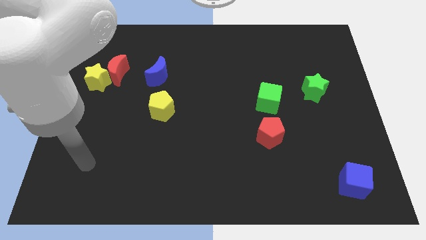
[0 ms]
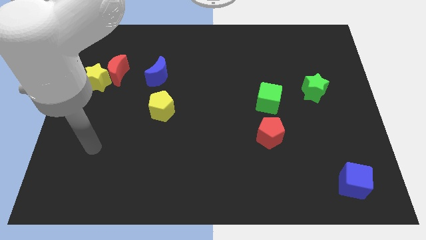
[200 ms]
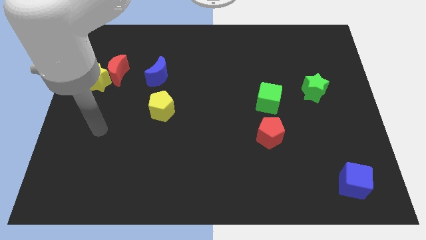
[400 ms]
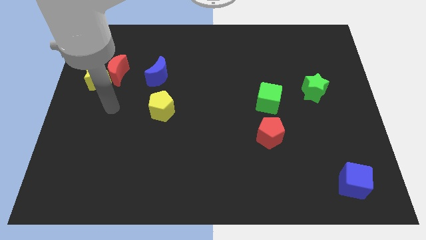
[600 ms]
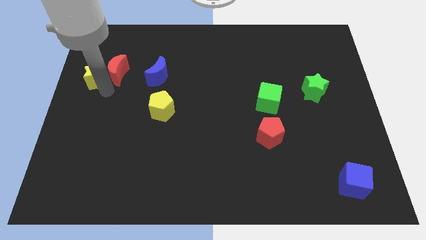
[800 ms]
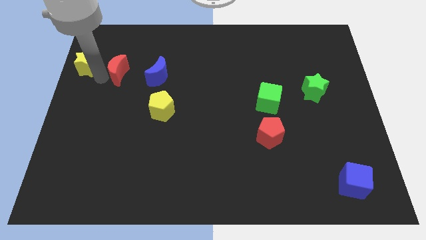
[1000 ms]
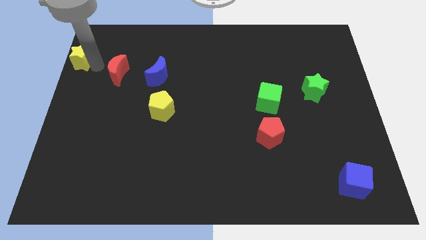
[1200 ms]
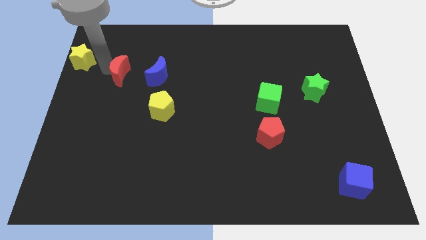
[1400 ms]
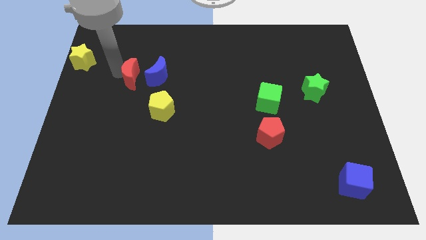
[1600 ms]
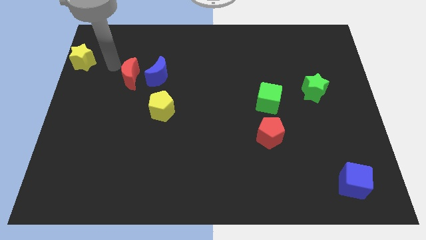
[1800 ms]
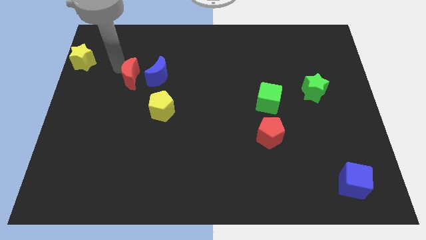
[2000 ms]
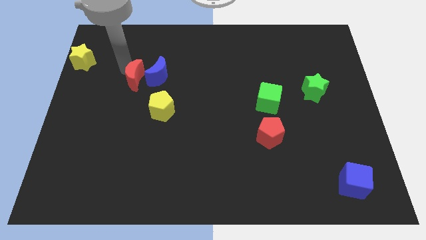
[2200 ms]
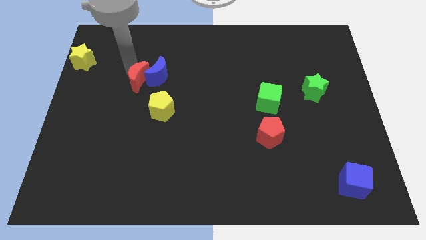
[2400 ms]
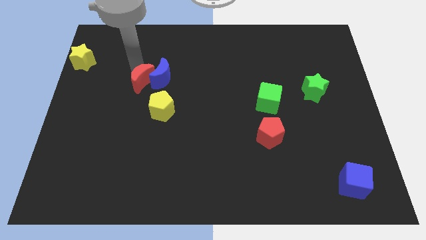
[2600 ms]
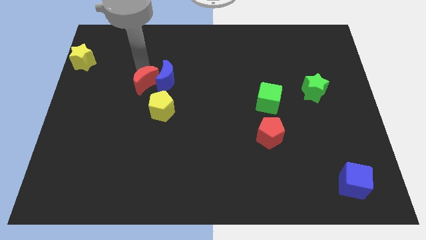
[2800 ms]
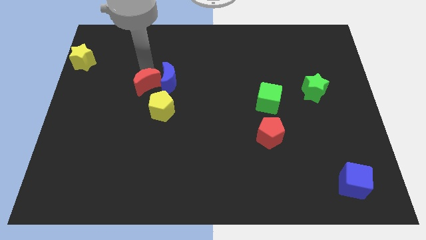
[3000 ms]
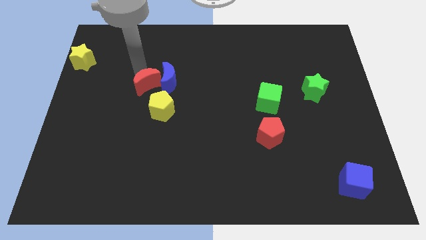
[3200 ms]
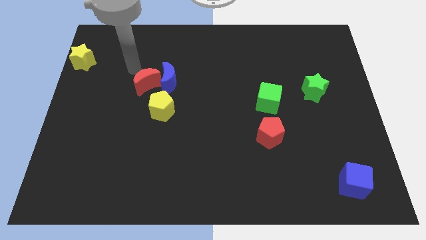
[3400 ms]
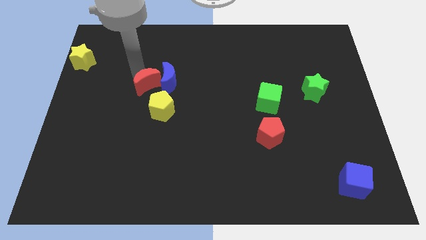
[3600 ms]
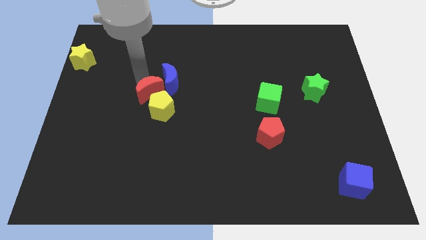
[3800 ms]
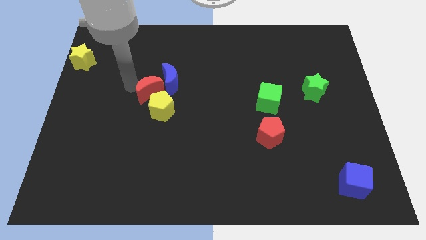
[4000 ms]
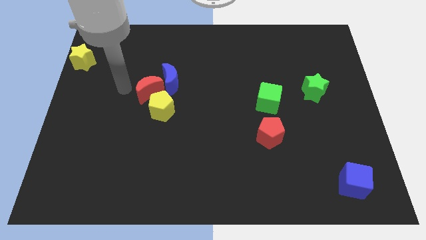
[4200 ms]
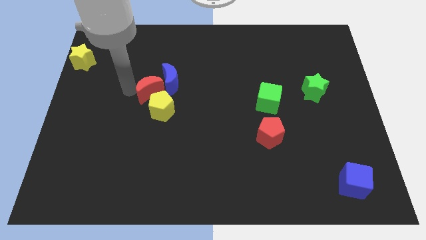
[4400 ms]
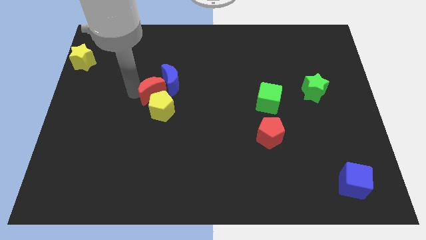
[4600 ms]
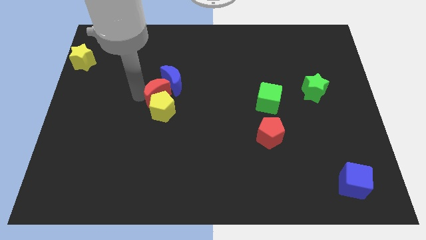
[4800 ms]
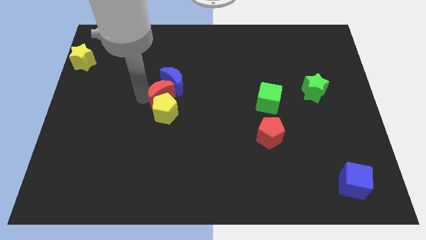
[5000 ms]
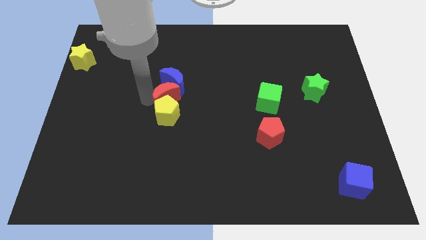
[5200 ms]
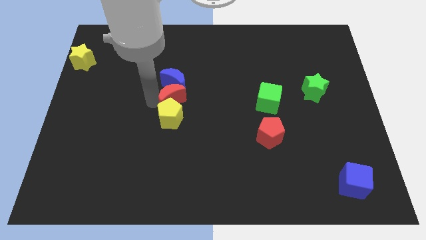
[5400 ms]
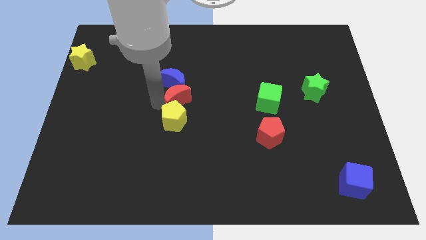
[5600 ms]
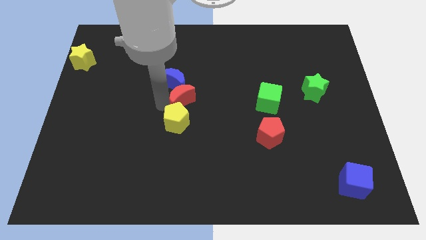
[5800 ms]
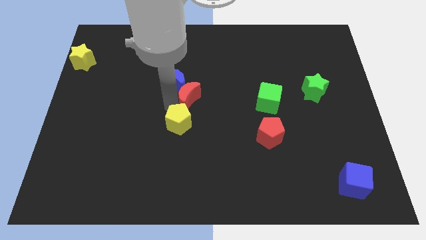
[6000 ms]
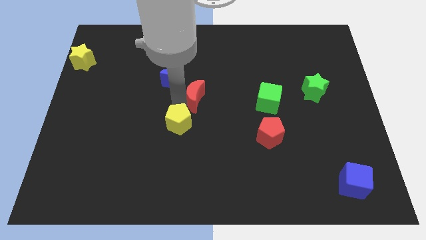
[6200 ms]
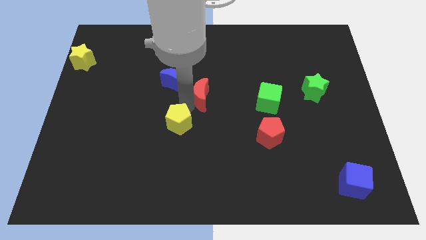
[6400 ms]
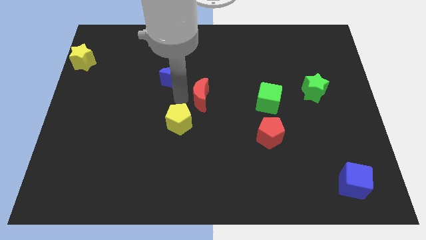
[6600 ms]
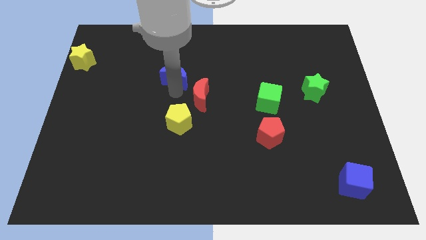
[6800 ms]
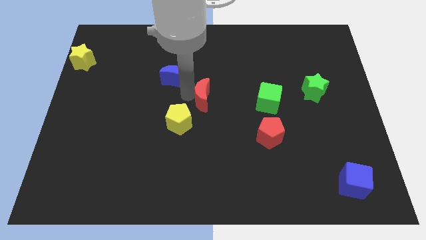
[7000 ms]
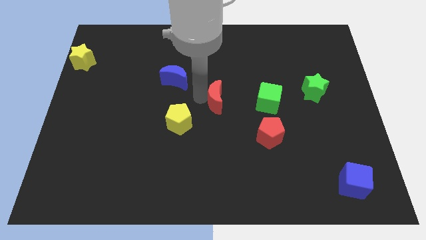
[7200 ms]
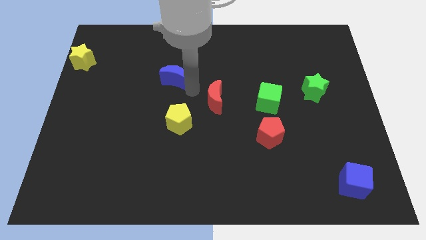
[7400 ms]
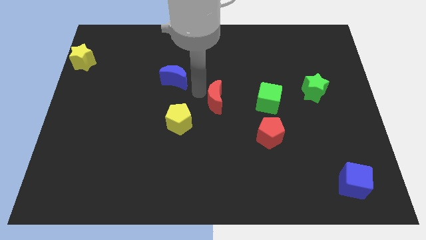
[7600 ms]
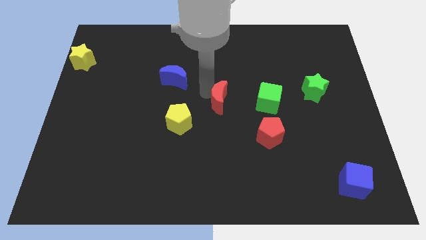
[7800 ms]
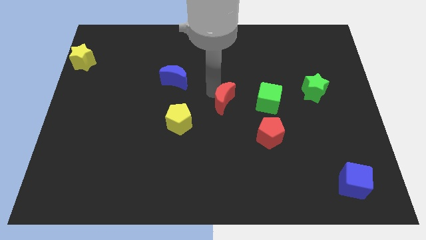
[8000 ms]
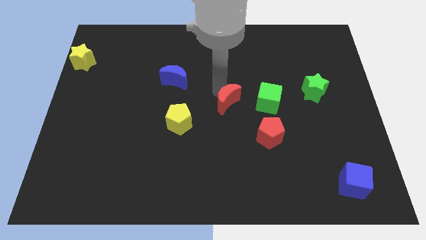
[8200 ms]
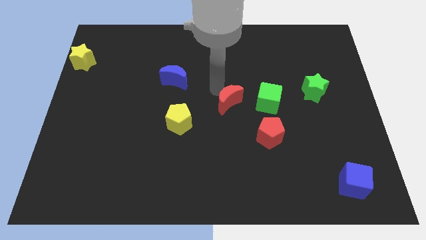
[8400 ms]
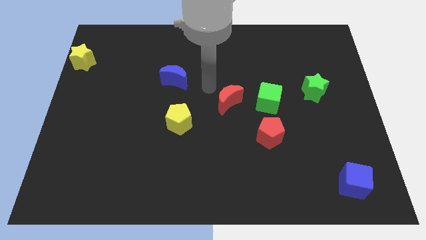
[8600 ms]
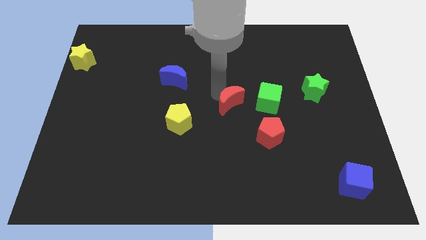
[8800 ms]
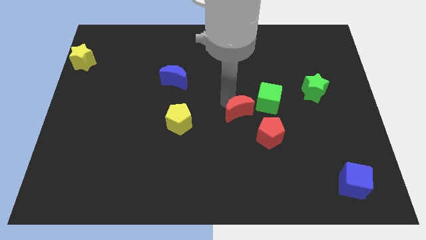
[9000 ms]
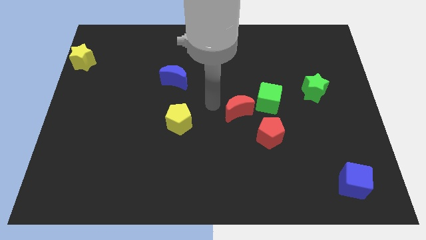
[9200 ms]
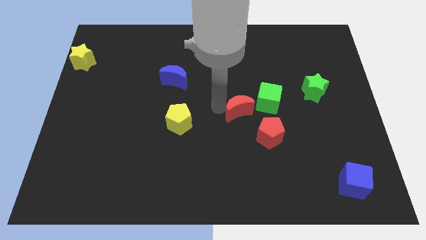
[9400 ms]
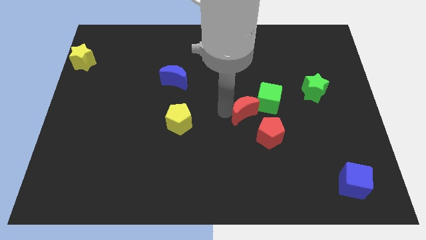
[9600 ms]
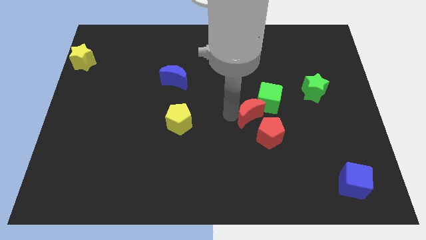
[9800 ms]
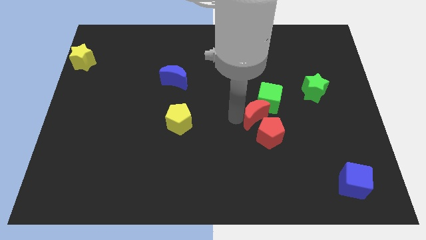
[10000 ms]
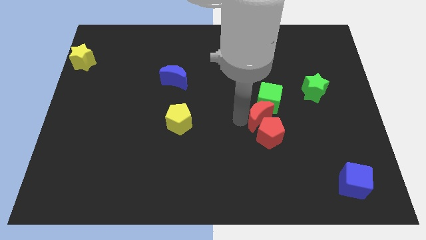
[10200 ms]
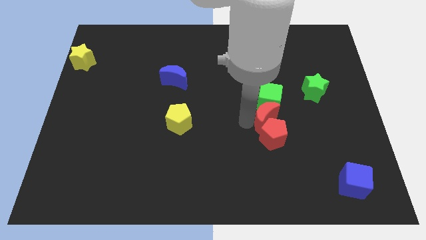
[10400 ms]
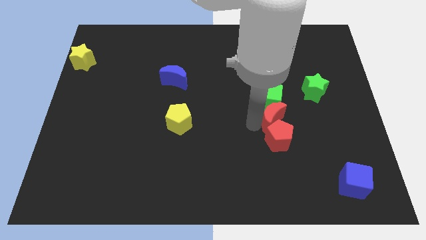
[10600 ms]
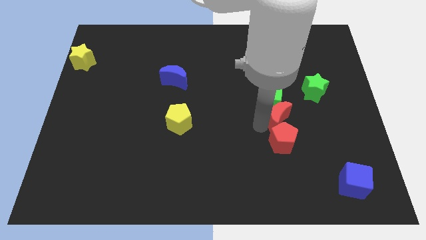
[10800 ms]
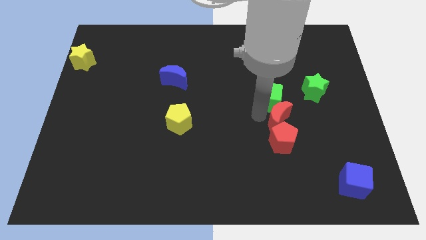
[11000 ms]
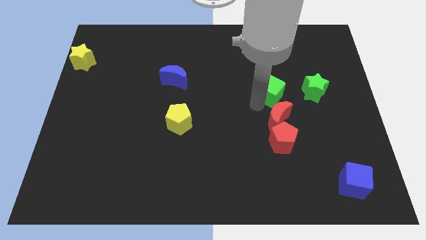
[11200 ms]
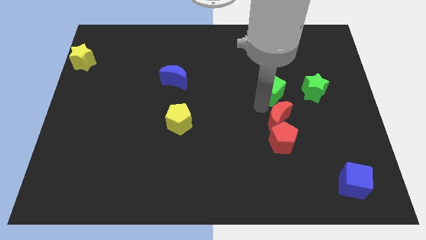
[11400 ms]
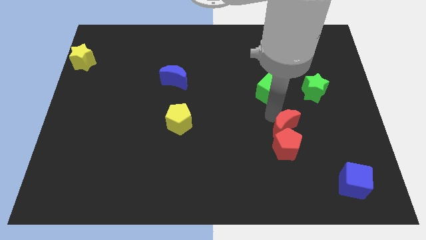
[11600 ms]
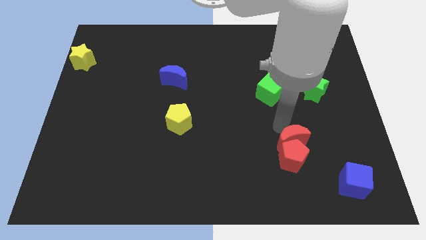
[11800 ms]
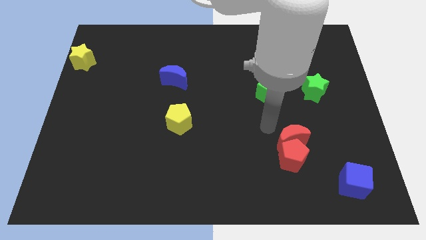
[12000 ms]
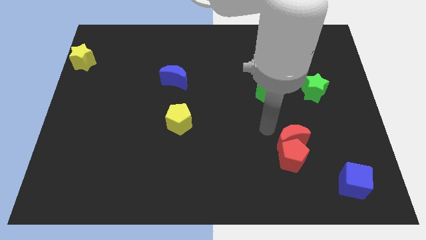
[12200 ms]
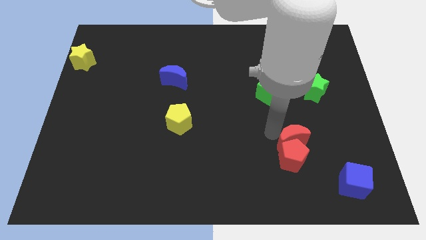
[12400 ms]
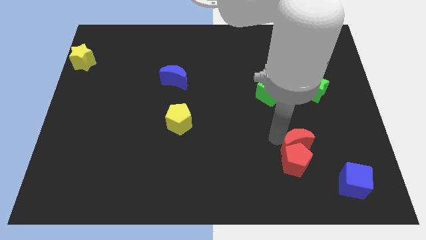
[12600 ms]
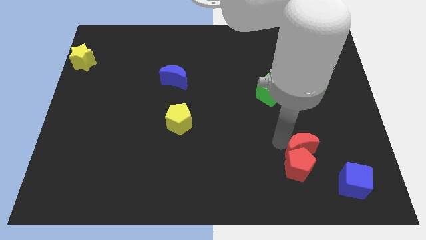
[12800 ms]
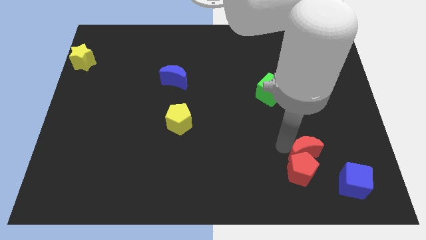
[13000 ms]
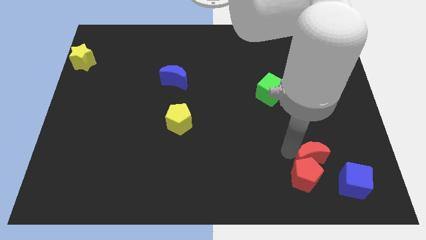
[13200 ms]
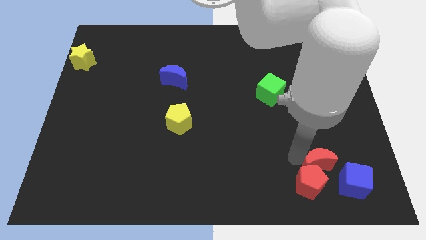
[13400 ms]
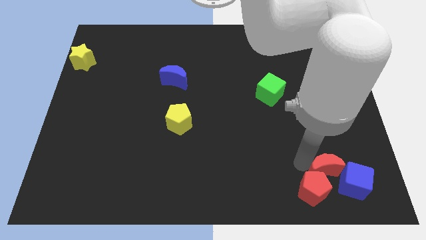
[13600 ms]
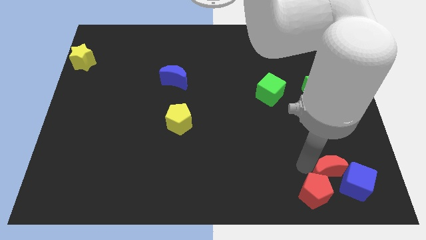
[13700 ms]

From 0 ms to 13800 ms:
slide the red moon to the blue cube

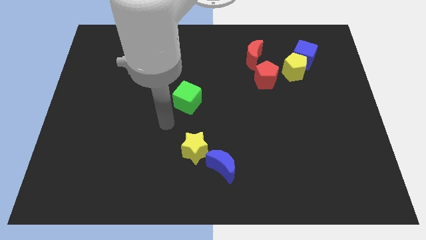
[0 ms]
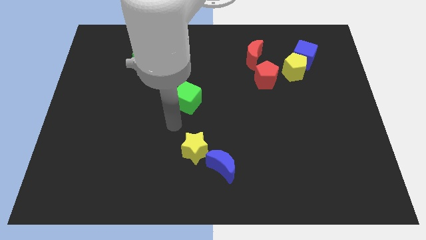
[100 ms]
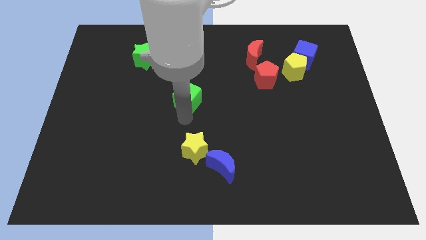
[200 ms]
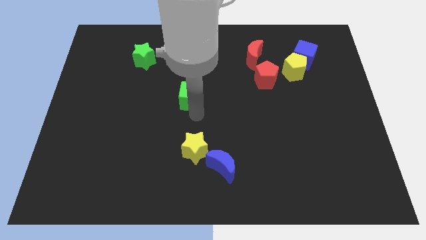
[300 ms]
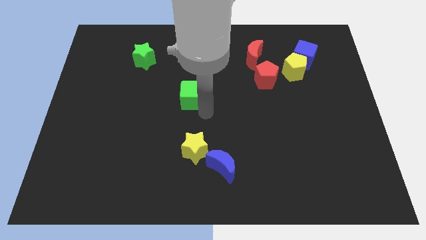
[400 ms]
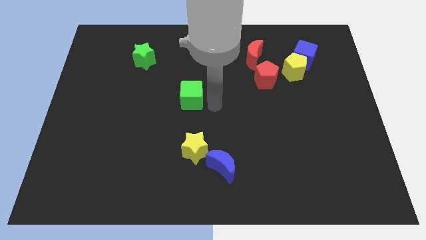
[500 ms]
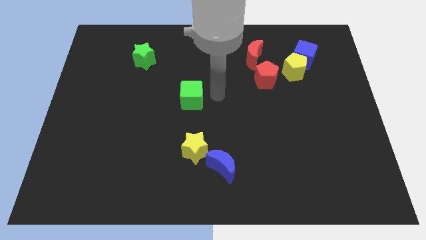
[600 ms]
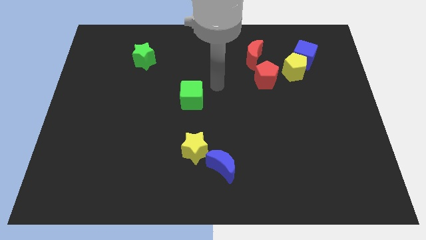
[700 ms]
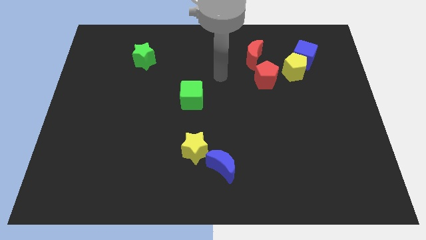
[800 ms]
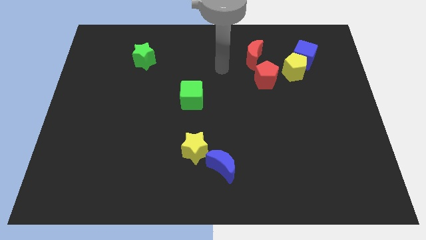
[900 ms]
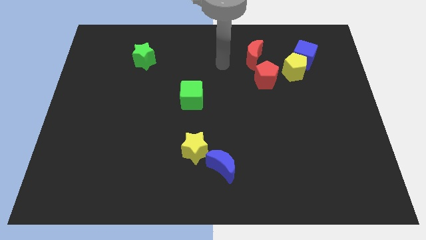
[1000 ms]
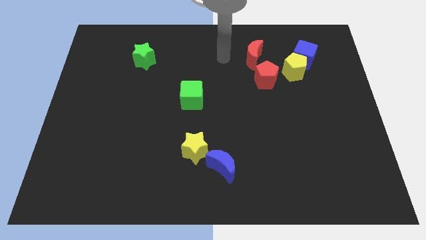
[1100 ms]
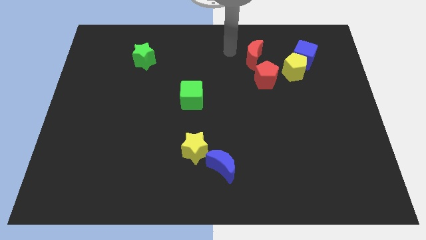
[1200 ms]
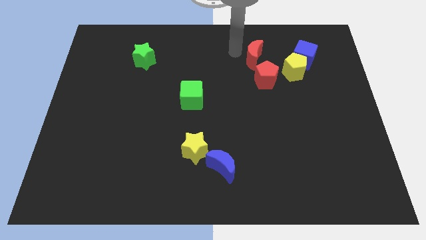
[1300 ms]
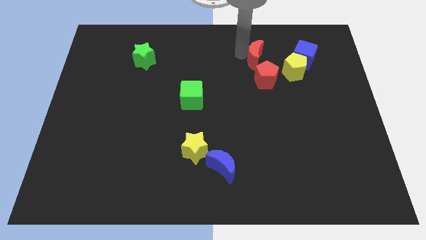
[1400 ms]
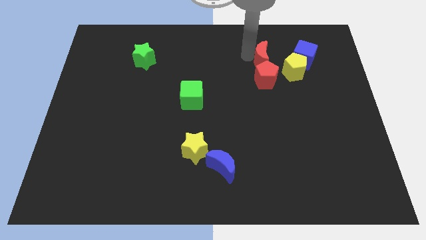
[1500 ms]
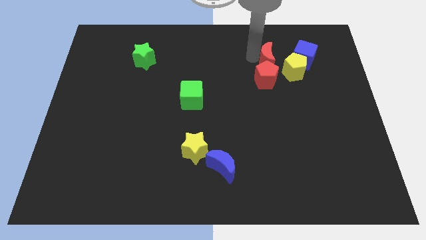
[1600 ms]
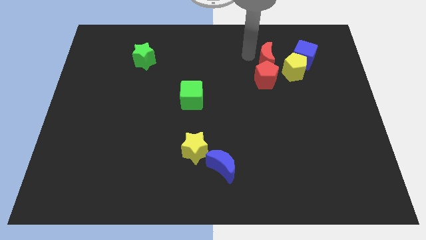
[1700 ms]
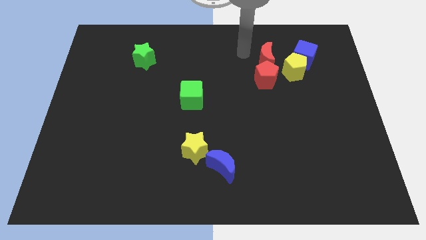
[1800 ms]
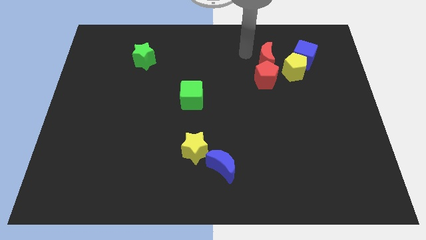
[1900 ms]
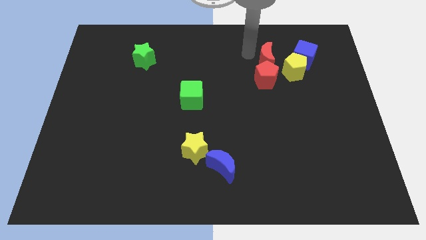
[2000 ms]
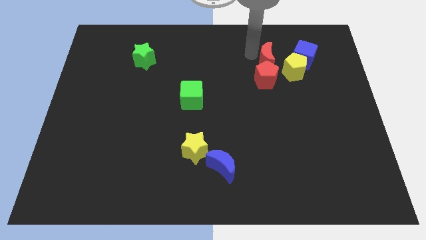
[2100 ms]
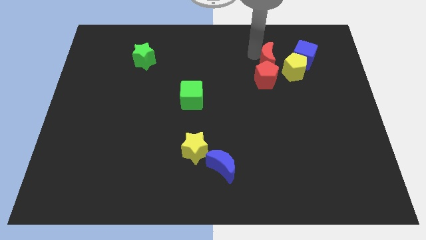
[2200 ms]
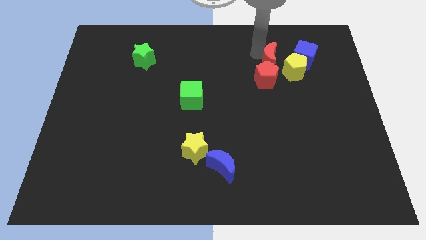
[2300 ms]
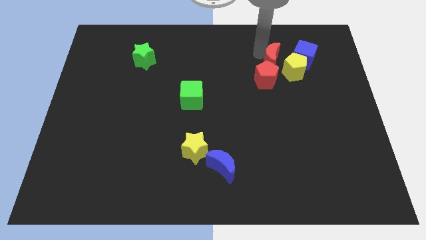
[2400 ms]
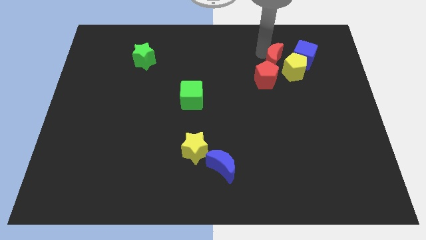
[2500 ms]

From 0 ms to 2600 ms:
slide the red moon close to the yellow pentagon
